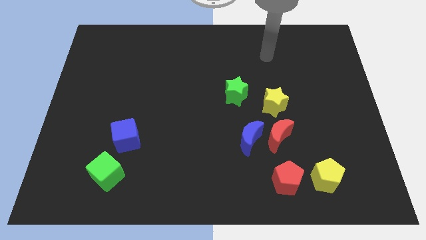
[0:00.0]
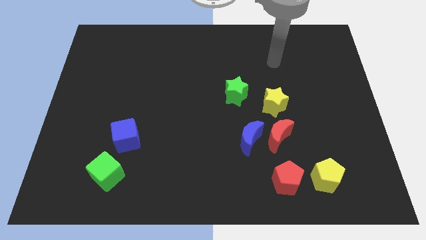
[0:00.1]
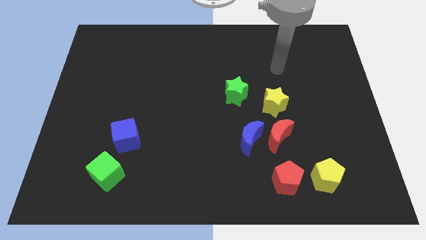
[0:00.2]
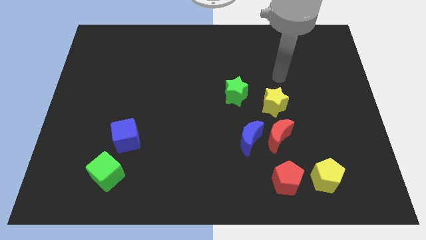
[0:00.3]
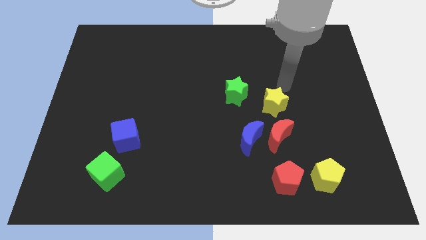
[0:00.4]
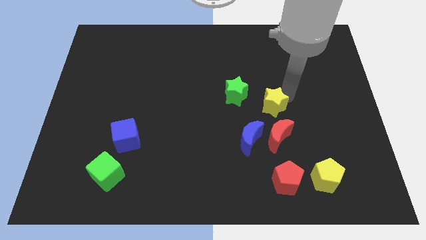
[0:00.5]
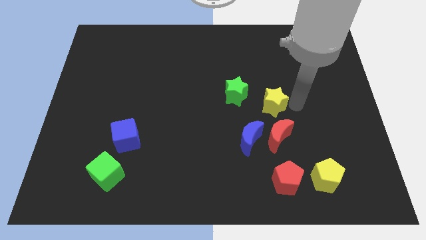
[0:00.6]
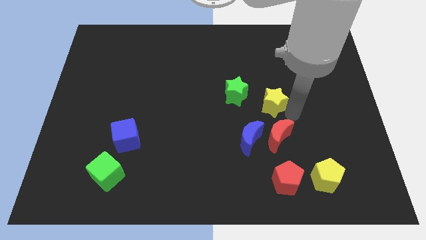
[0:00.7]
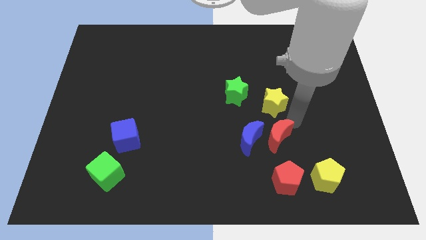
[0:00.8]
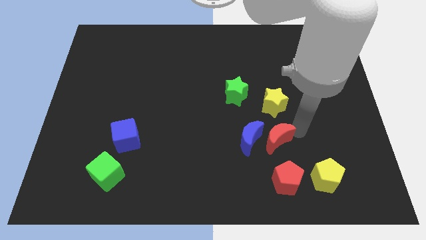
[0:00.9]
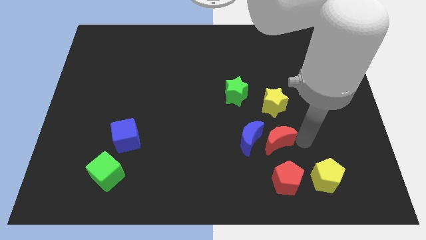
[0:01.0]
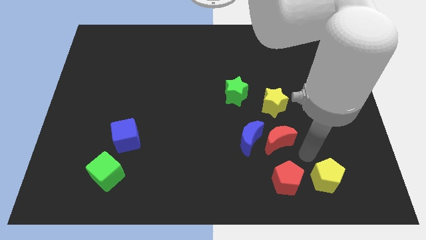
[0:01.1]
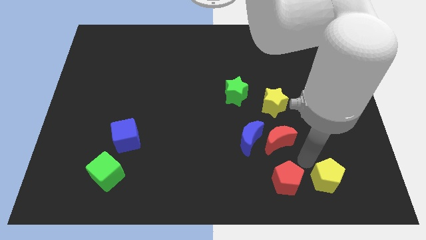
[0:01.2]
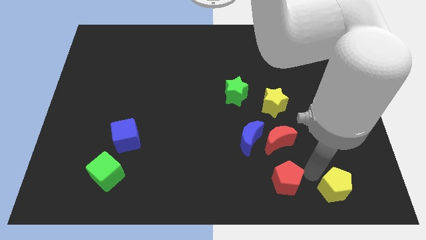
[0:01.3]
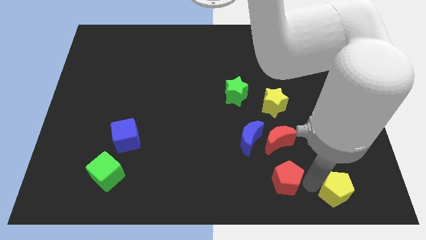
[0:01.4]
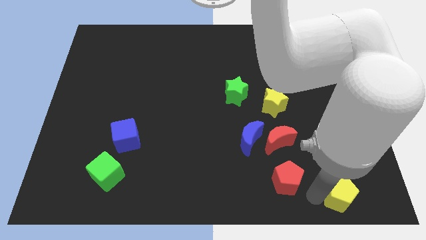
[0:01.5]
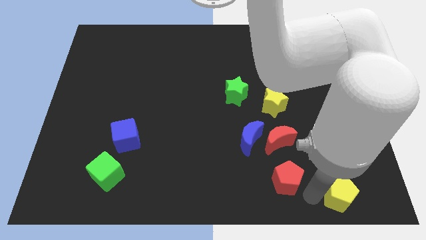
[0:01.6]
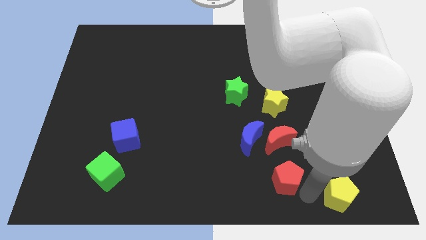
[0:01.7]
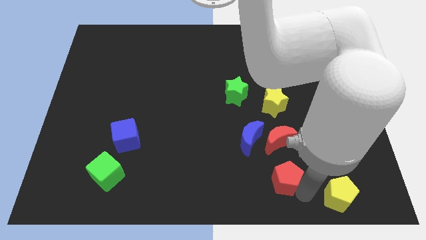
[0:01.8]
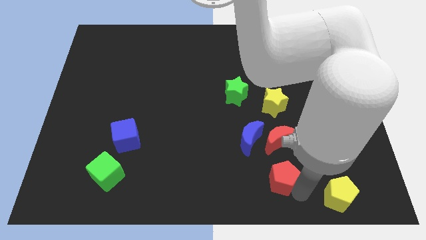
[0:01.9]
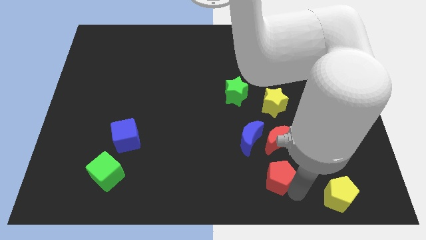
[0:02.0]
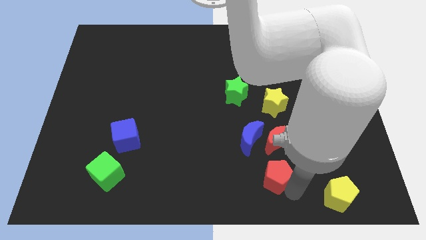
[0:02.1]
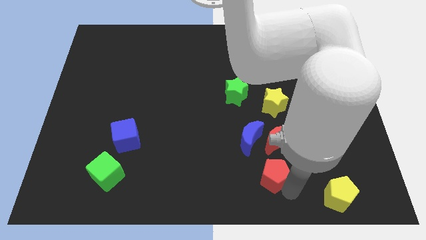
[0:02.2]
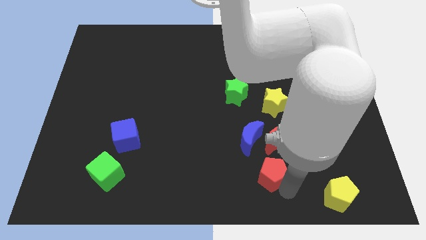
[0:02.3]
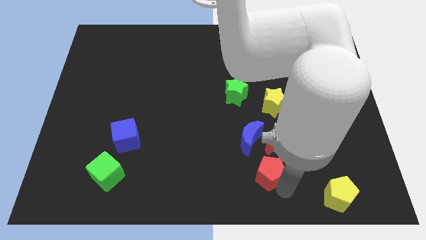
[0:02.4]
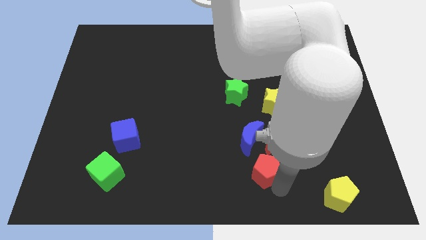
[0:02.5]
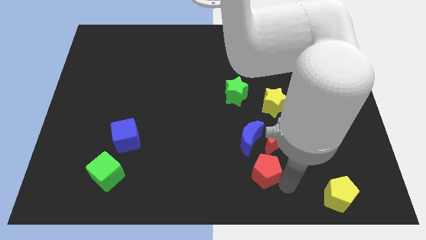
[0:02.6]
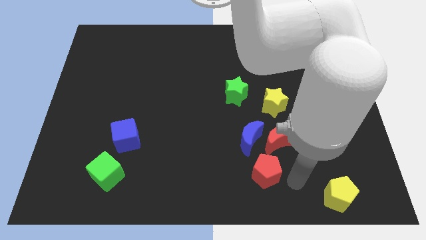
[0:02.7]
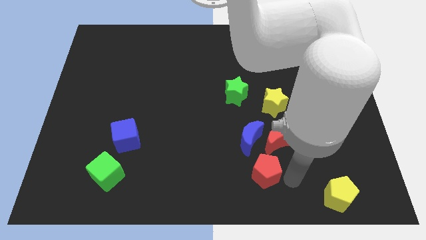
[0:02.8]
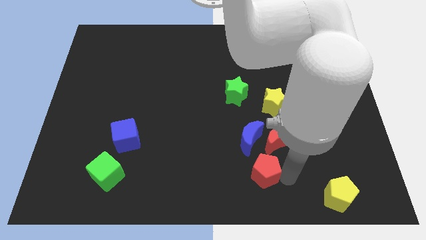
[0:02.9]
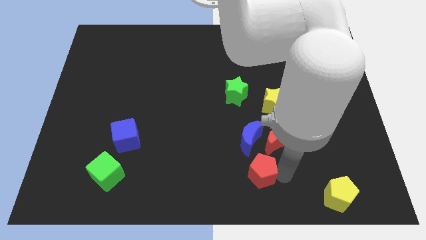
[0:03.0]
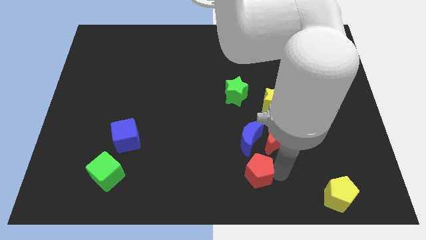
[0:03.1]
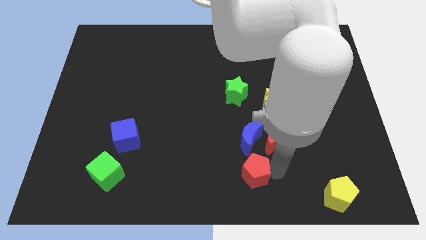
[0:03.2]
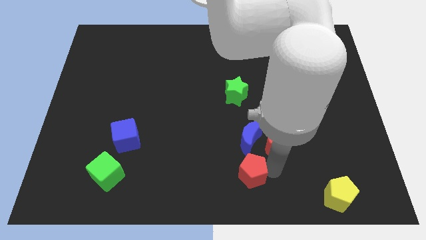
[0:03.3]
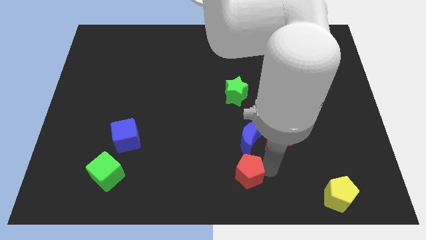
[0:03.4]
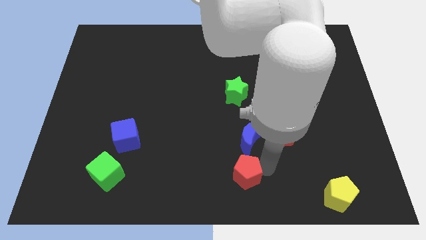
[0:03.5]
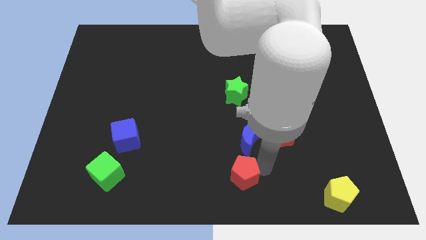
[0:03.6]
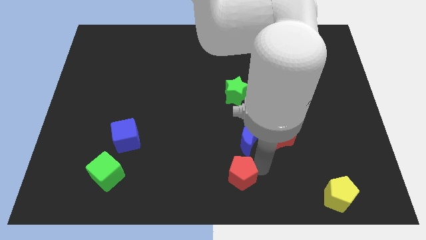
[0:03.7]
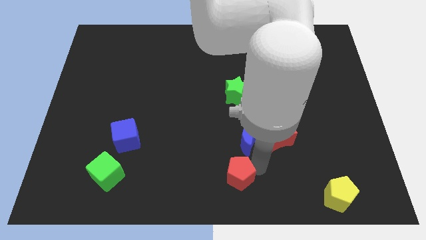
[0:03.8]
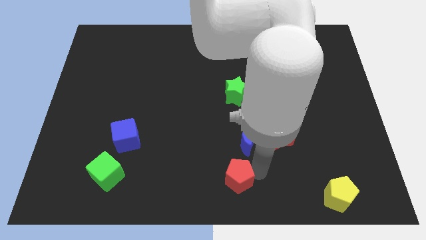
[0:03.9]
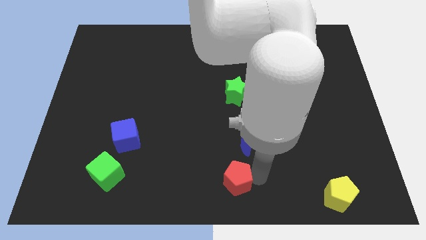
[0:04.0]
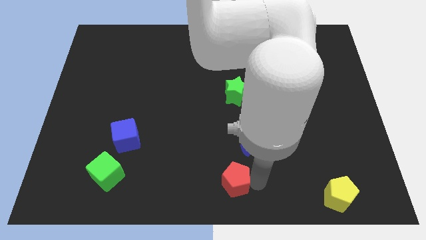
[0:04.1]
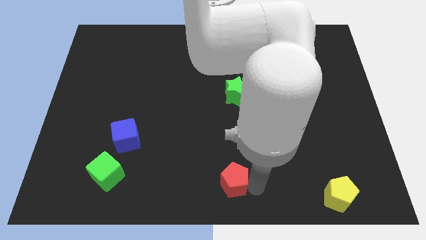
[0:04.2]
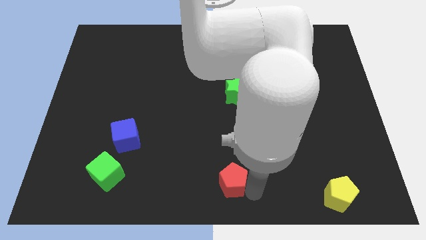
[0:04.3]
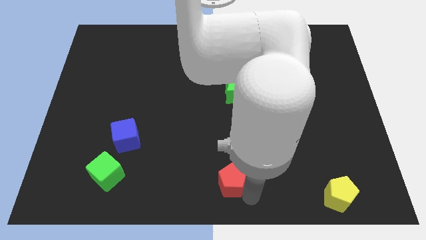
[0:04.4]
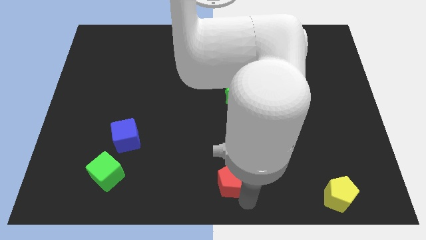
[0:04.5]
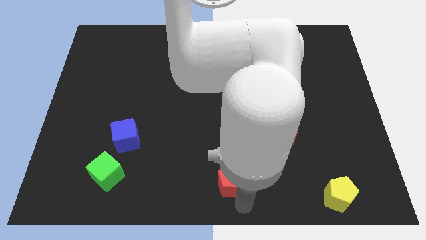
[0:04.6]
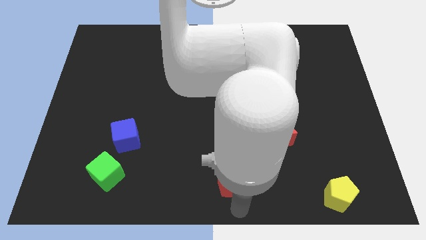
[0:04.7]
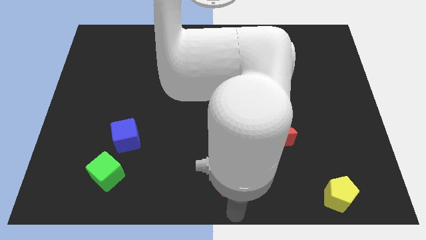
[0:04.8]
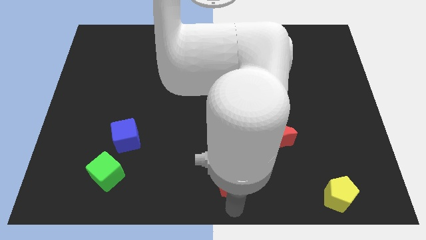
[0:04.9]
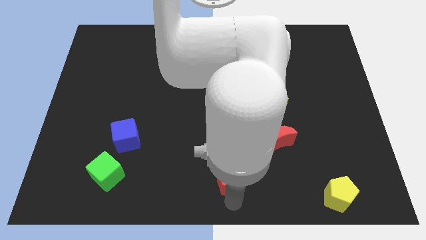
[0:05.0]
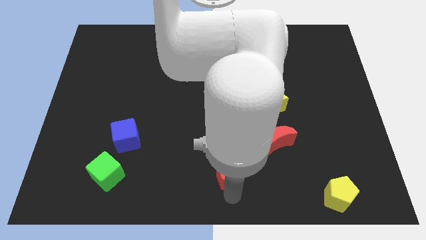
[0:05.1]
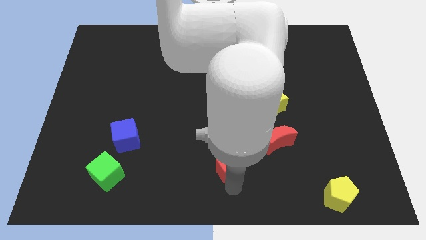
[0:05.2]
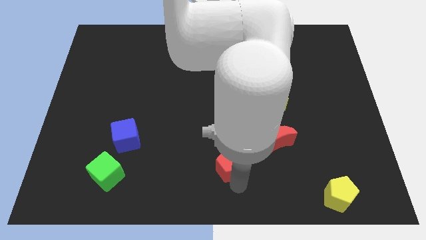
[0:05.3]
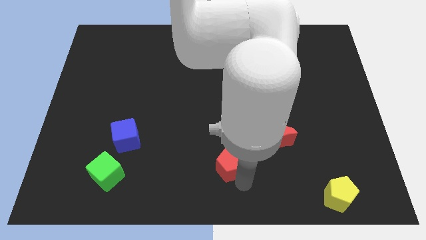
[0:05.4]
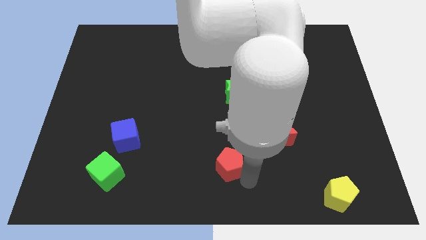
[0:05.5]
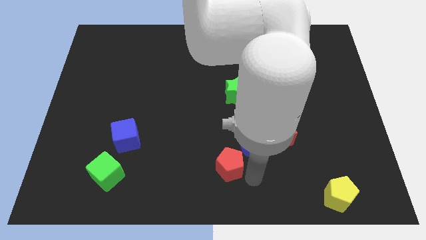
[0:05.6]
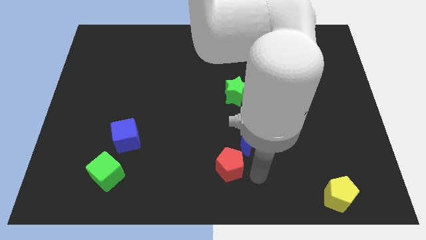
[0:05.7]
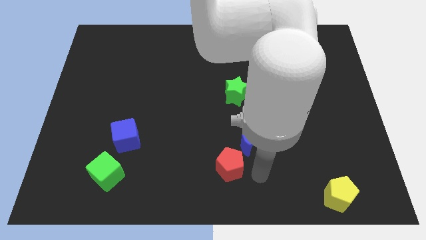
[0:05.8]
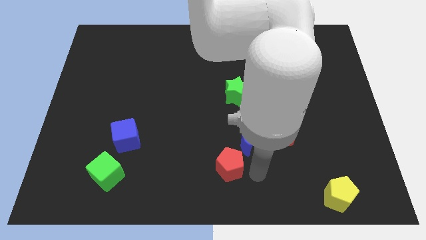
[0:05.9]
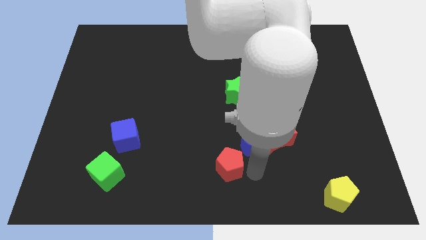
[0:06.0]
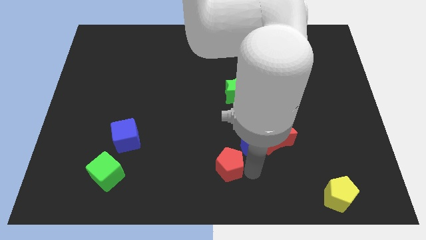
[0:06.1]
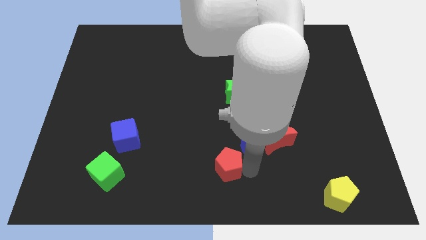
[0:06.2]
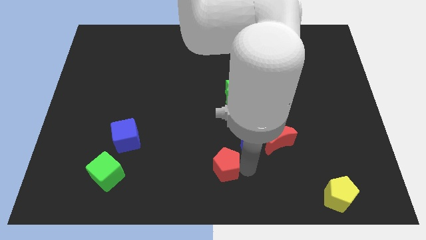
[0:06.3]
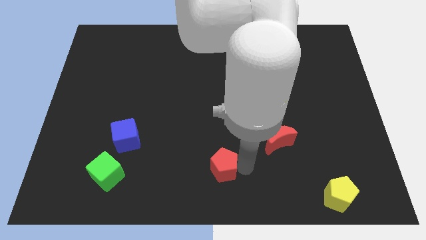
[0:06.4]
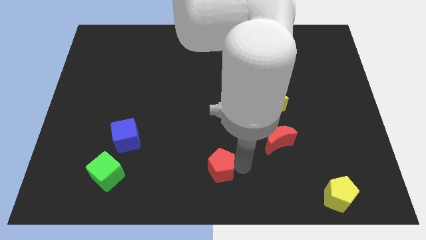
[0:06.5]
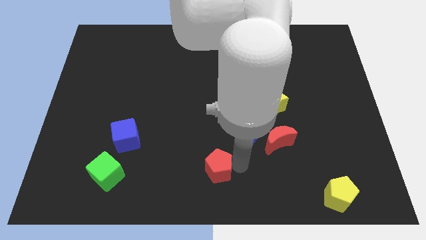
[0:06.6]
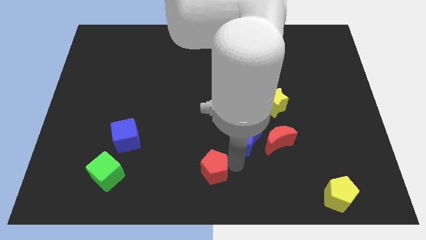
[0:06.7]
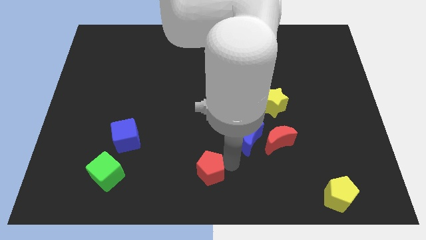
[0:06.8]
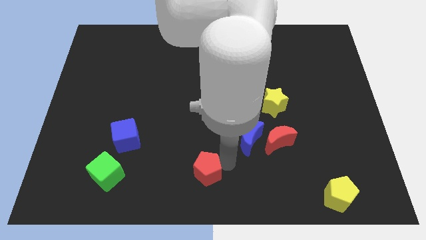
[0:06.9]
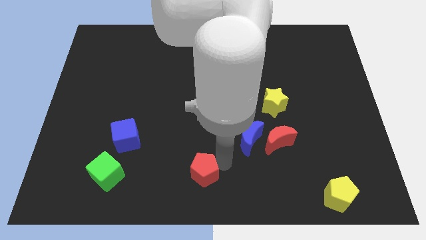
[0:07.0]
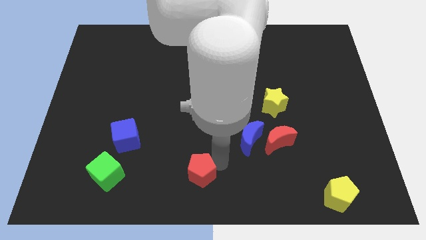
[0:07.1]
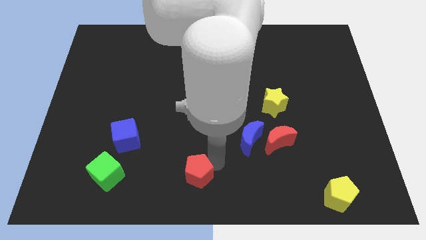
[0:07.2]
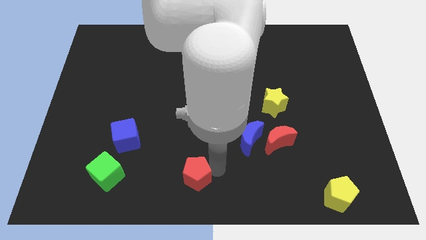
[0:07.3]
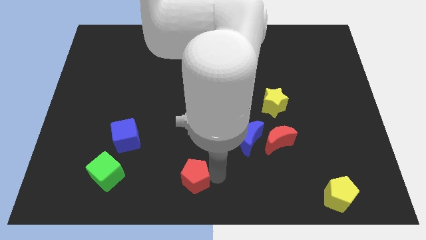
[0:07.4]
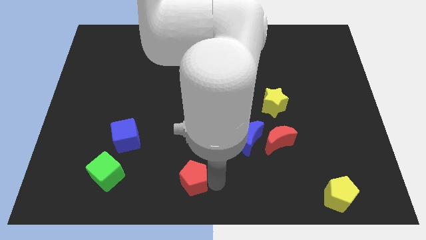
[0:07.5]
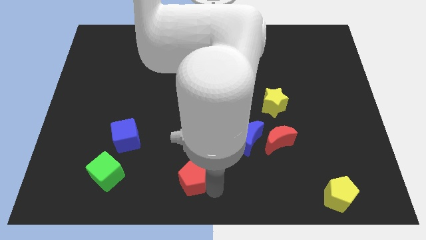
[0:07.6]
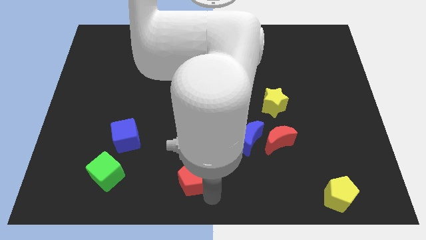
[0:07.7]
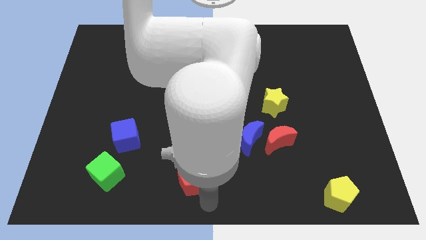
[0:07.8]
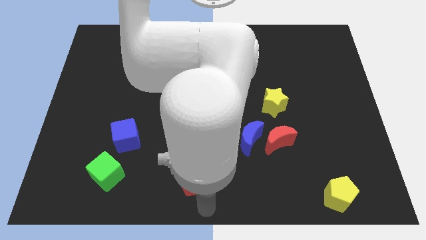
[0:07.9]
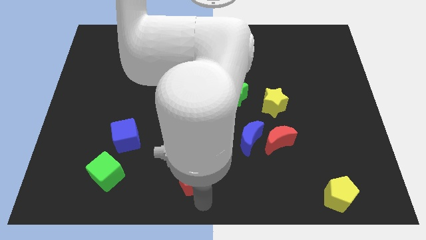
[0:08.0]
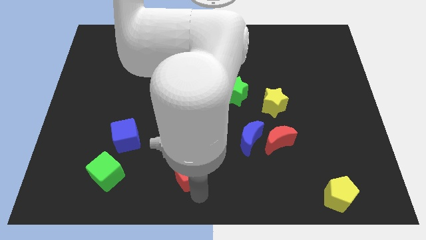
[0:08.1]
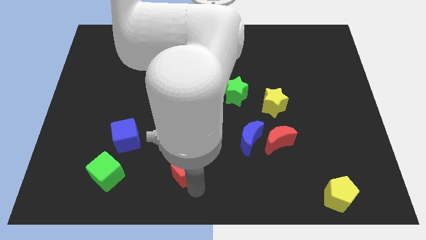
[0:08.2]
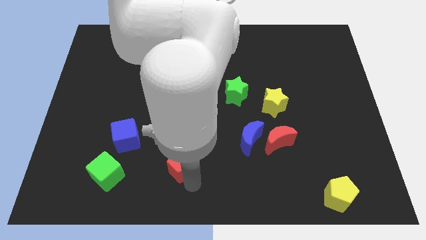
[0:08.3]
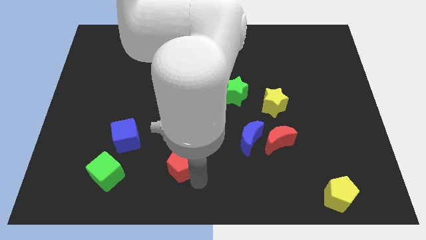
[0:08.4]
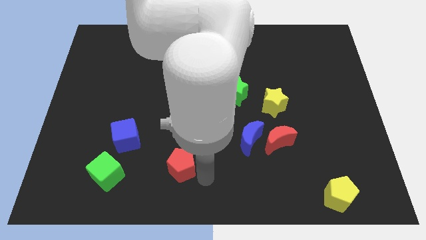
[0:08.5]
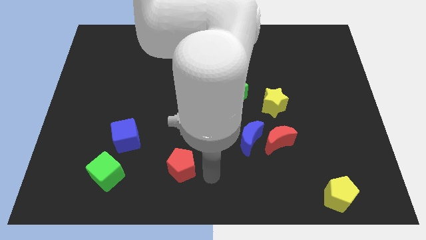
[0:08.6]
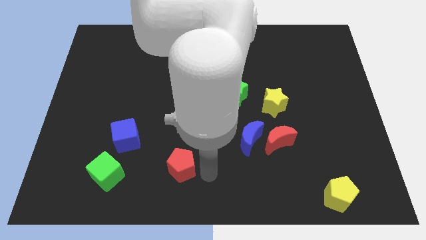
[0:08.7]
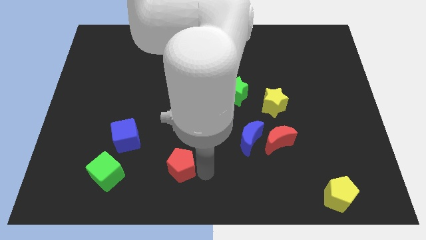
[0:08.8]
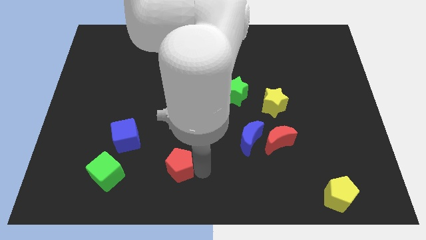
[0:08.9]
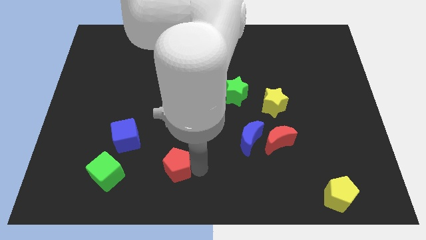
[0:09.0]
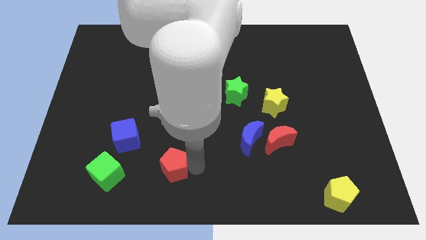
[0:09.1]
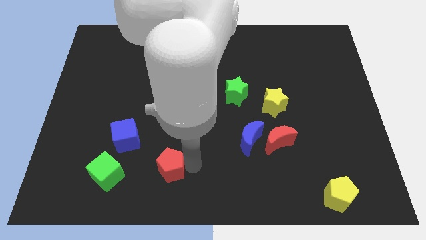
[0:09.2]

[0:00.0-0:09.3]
push the red pentagon to the bottom right side of the blue cube
